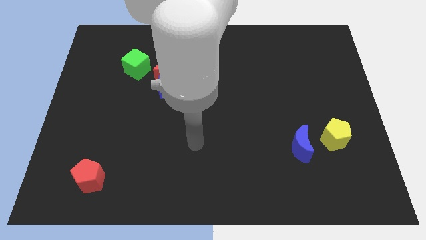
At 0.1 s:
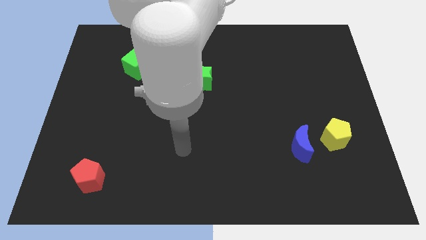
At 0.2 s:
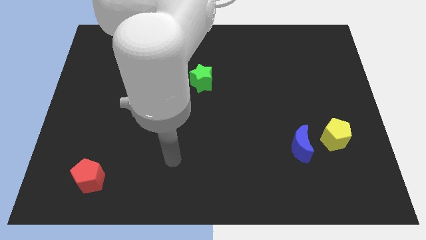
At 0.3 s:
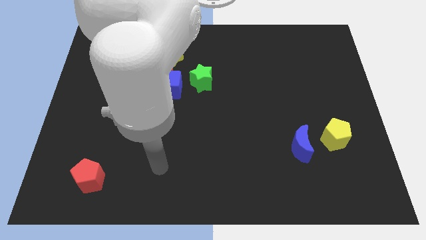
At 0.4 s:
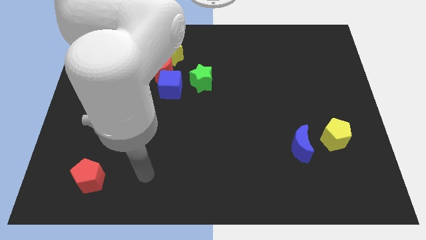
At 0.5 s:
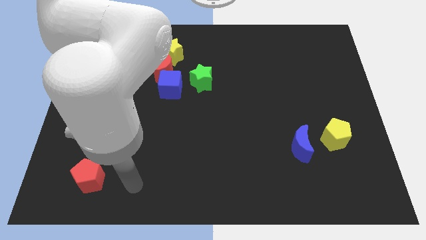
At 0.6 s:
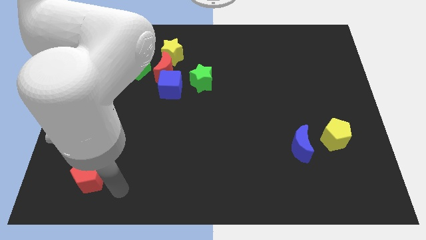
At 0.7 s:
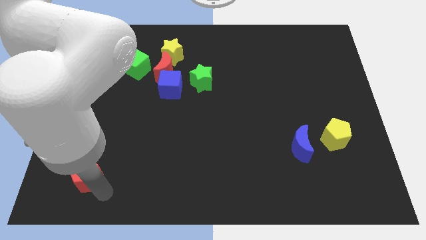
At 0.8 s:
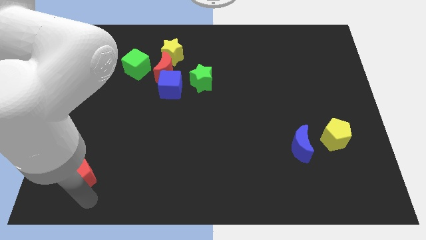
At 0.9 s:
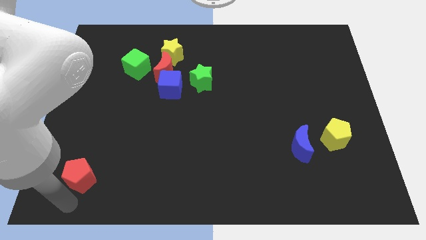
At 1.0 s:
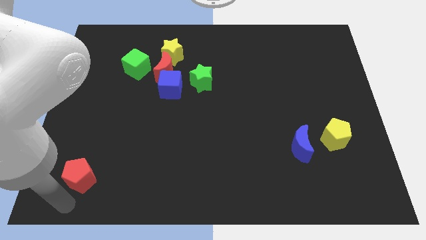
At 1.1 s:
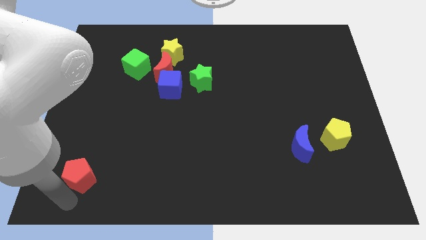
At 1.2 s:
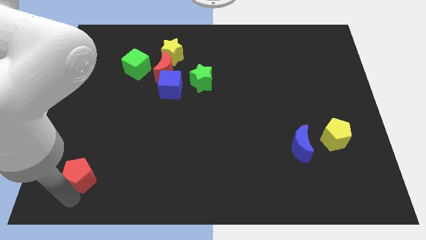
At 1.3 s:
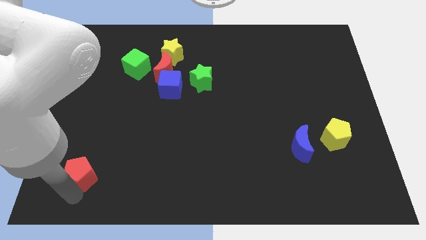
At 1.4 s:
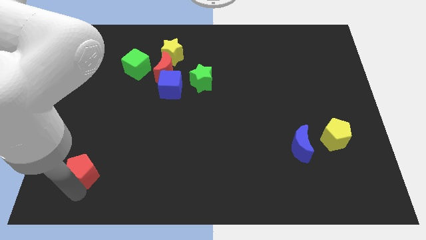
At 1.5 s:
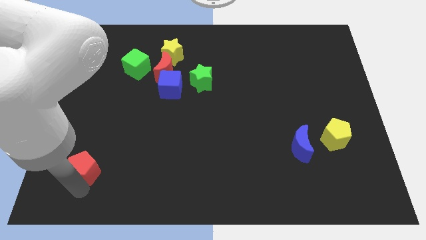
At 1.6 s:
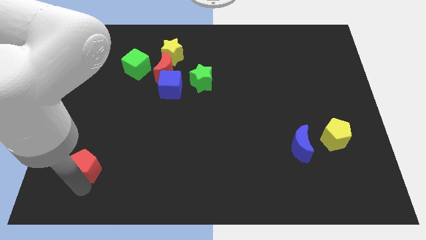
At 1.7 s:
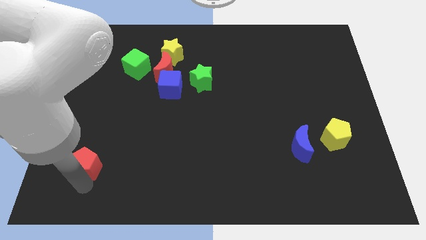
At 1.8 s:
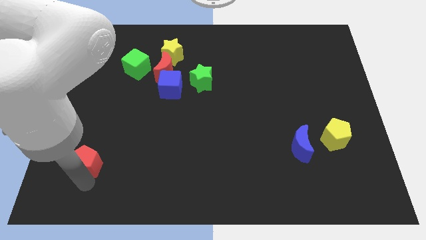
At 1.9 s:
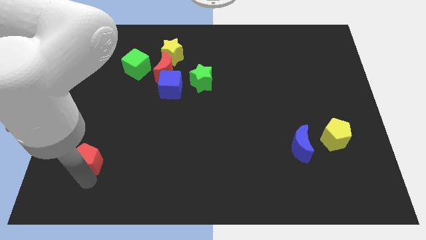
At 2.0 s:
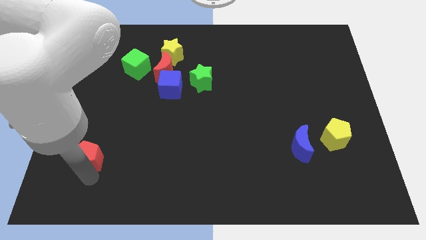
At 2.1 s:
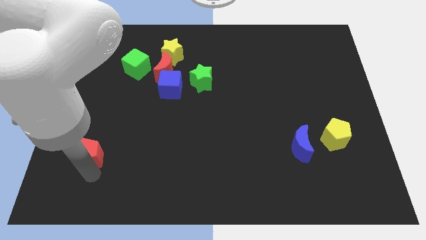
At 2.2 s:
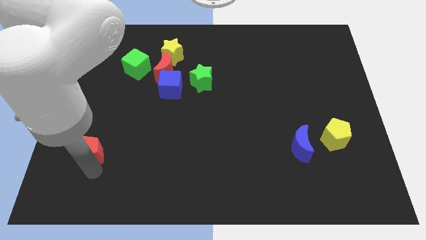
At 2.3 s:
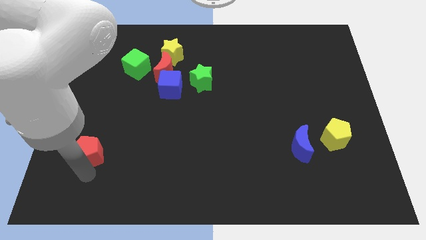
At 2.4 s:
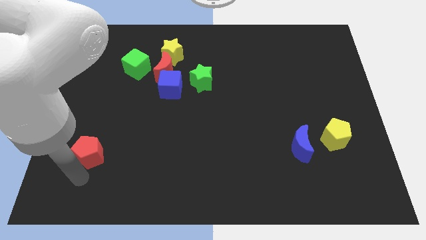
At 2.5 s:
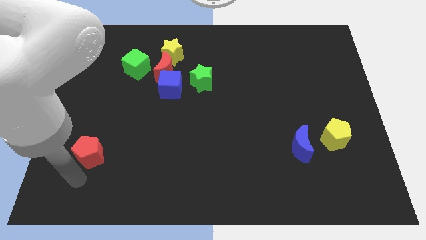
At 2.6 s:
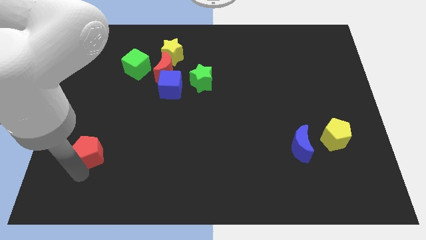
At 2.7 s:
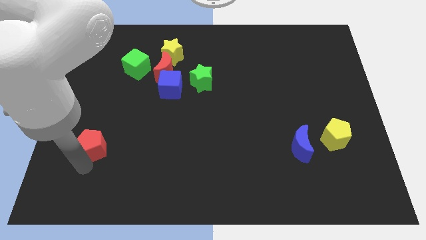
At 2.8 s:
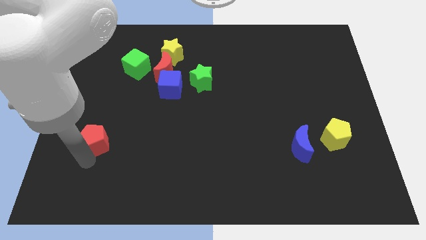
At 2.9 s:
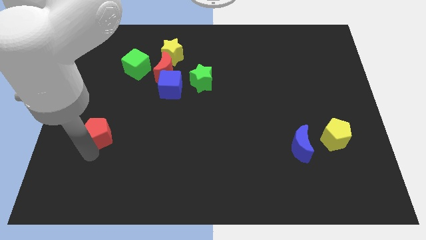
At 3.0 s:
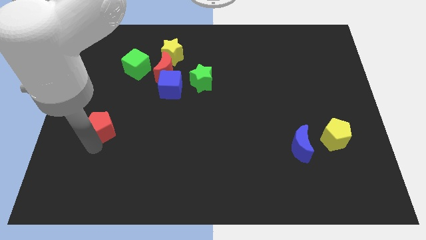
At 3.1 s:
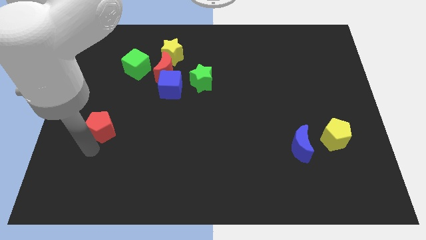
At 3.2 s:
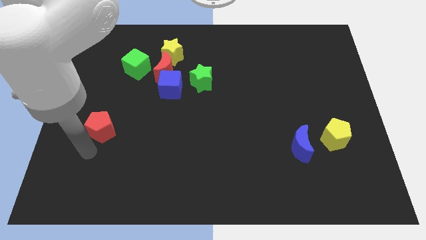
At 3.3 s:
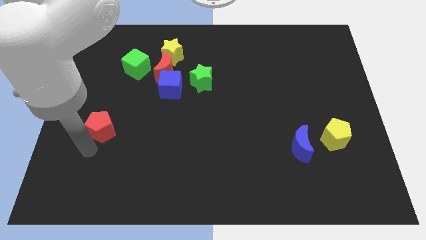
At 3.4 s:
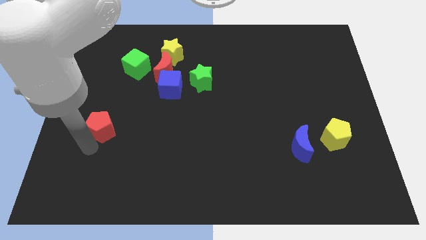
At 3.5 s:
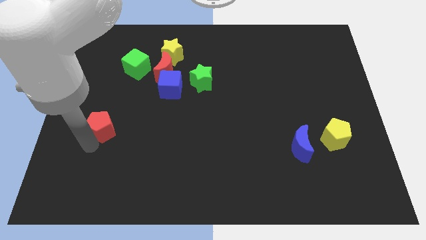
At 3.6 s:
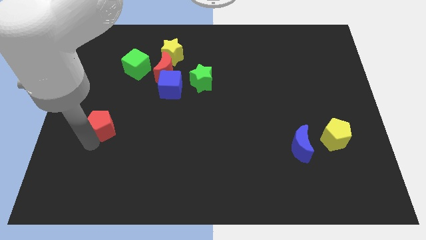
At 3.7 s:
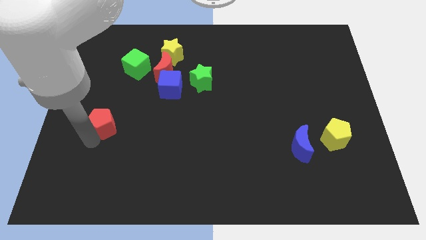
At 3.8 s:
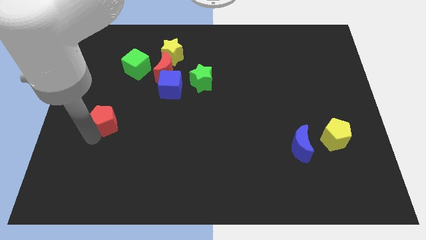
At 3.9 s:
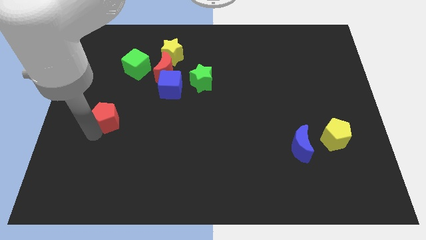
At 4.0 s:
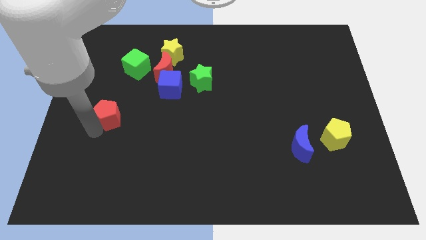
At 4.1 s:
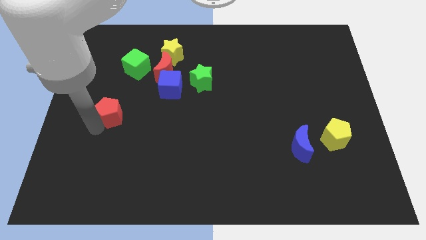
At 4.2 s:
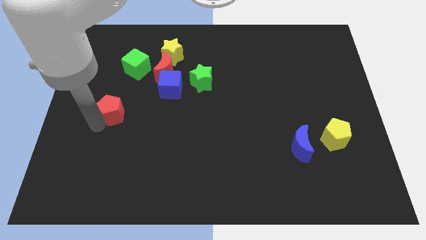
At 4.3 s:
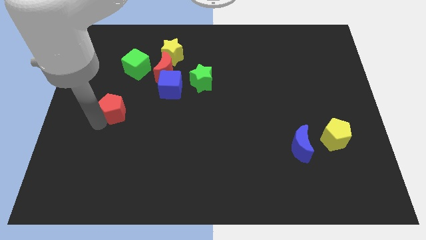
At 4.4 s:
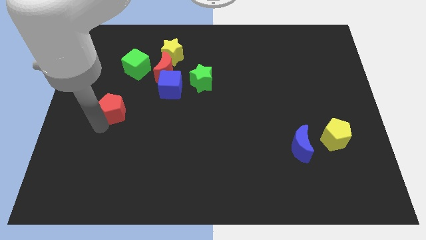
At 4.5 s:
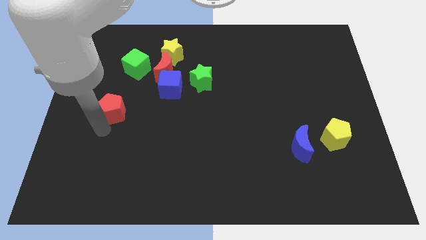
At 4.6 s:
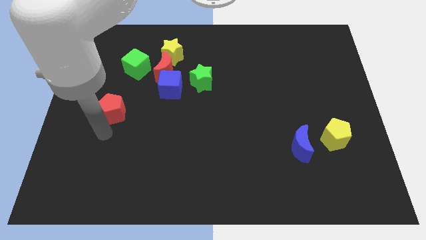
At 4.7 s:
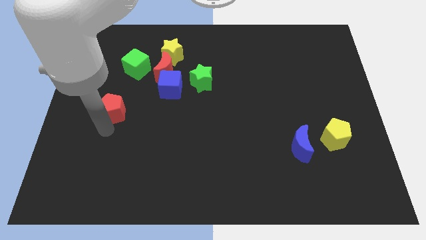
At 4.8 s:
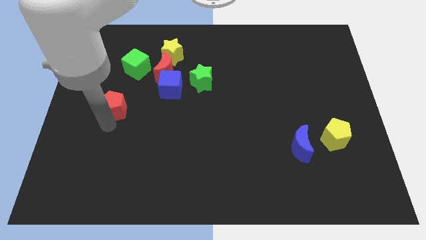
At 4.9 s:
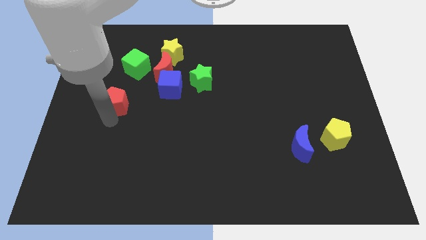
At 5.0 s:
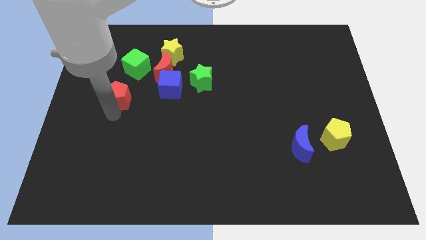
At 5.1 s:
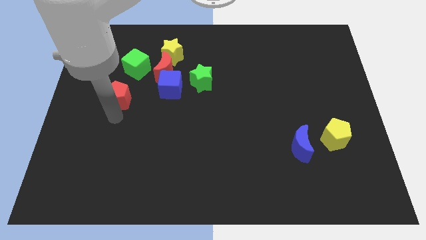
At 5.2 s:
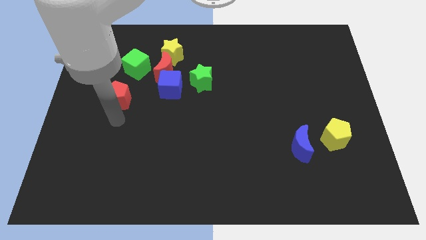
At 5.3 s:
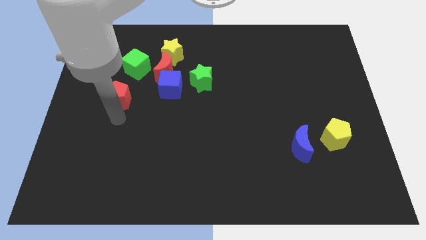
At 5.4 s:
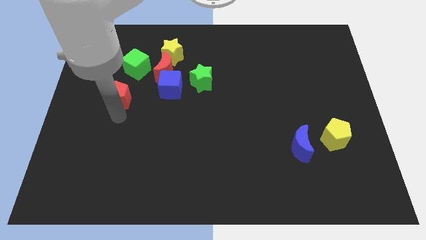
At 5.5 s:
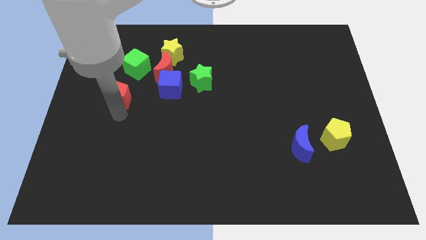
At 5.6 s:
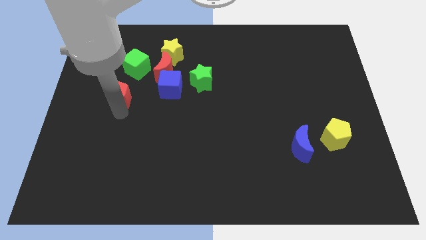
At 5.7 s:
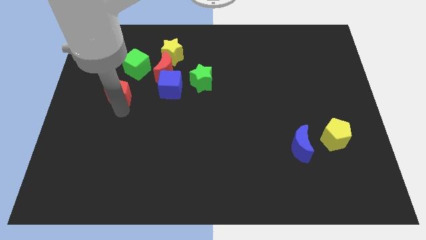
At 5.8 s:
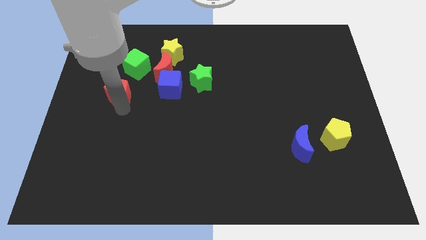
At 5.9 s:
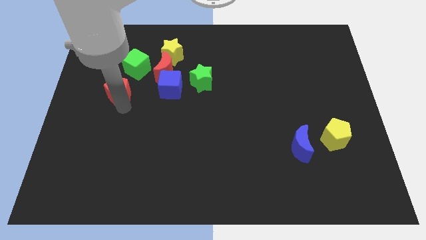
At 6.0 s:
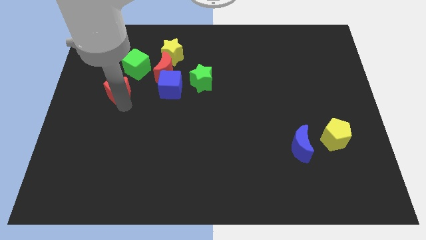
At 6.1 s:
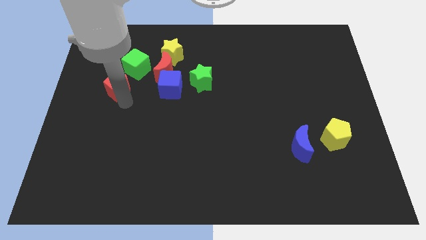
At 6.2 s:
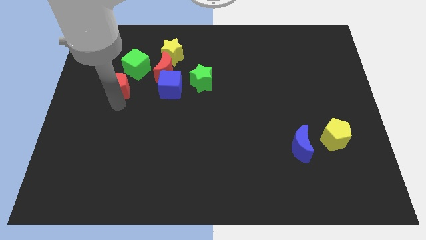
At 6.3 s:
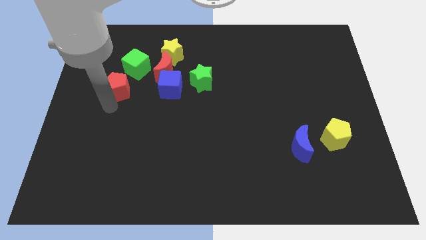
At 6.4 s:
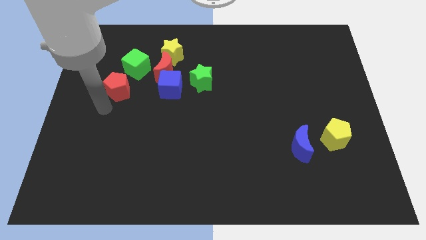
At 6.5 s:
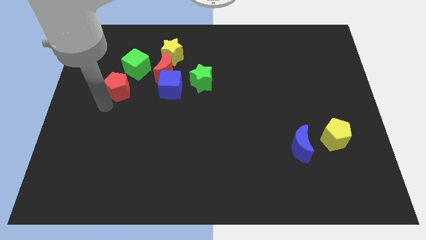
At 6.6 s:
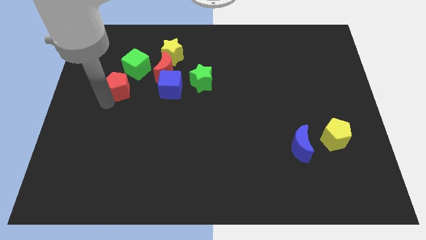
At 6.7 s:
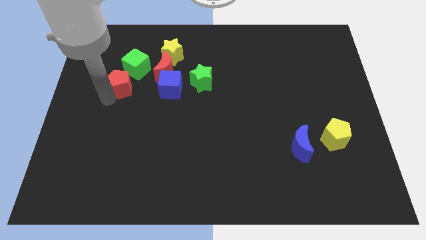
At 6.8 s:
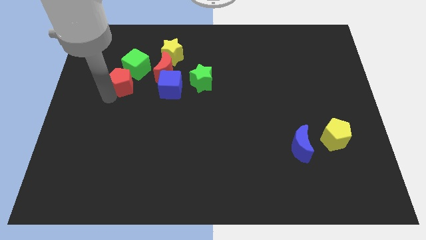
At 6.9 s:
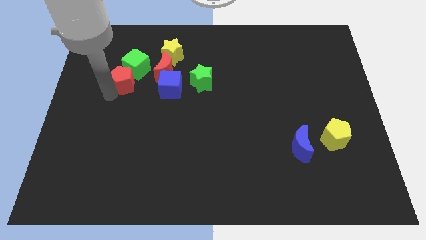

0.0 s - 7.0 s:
push the red pentagon to the green cube
